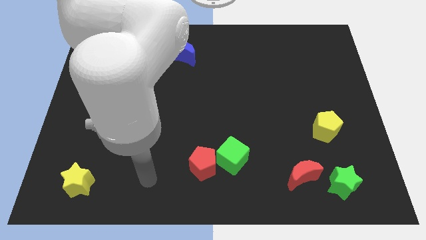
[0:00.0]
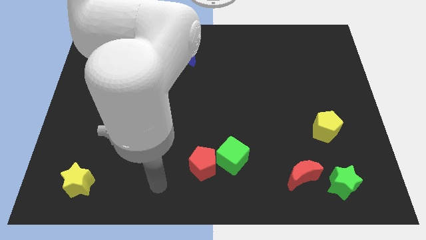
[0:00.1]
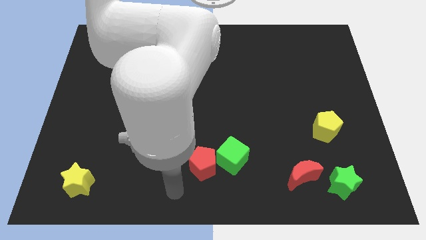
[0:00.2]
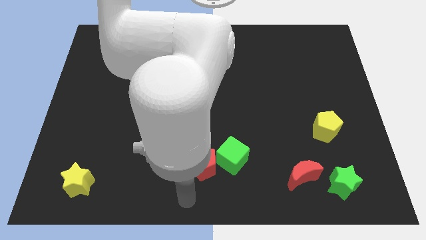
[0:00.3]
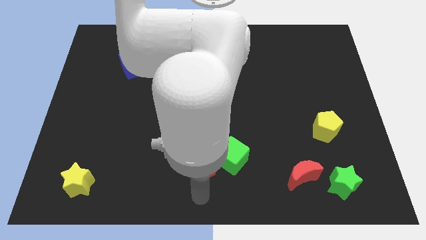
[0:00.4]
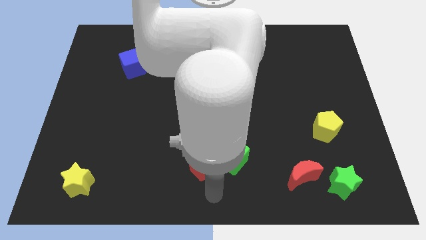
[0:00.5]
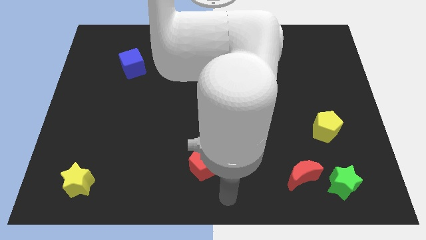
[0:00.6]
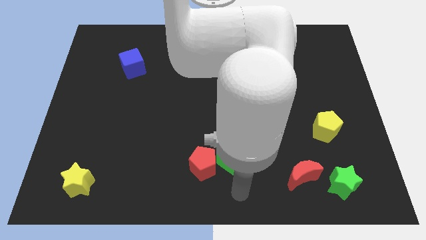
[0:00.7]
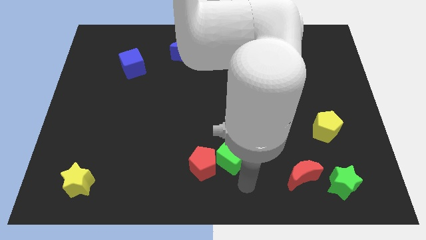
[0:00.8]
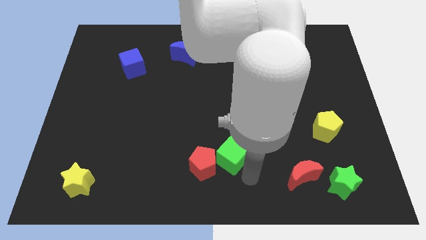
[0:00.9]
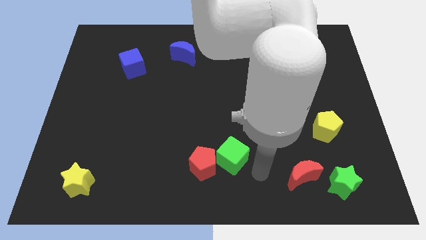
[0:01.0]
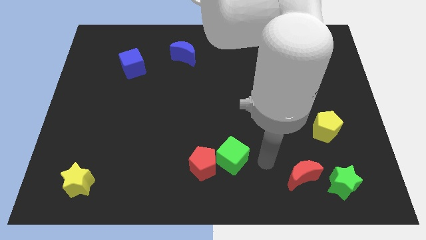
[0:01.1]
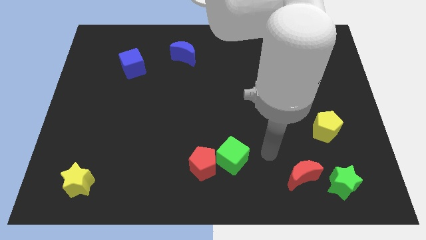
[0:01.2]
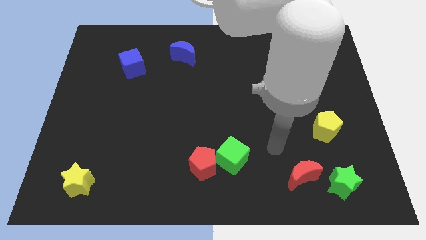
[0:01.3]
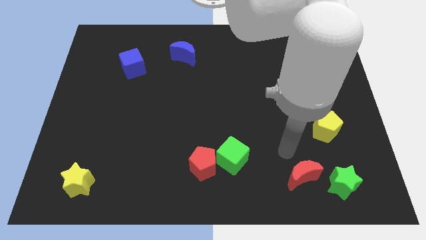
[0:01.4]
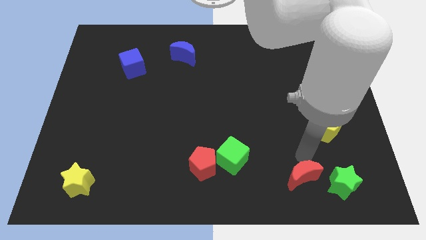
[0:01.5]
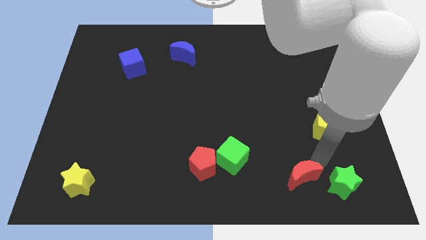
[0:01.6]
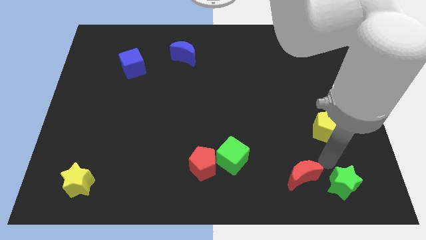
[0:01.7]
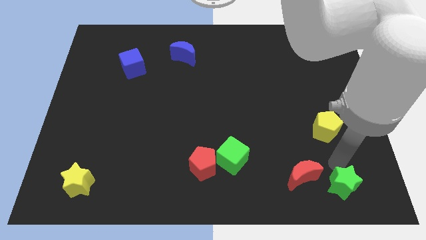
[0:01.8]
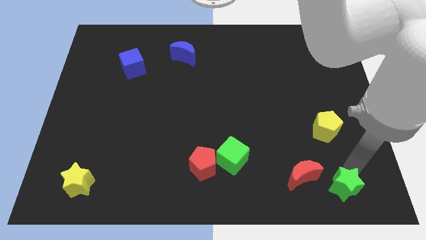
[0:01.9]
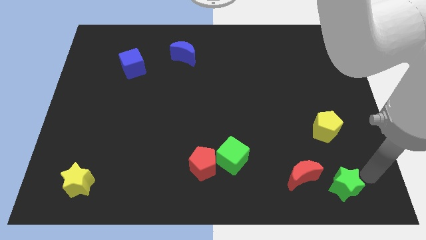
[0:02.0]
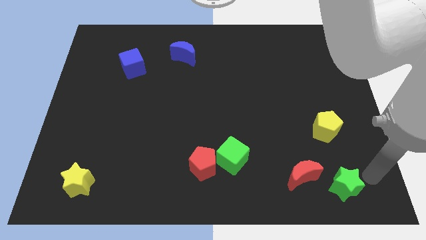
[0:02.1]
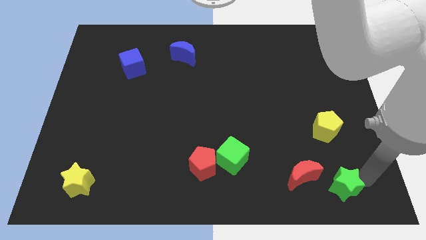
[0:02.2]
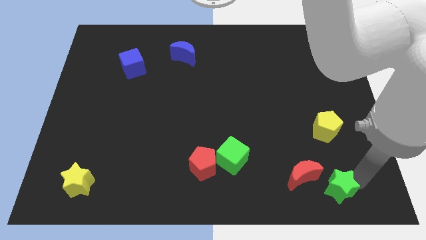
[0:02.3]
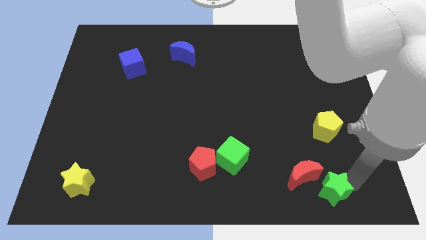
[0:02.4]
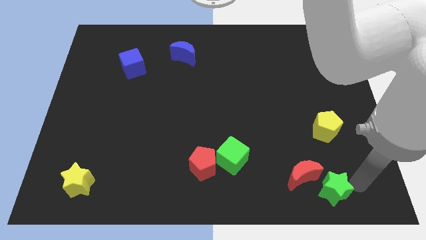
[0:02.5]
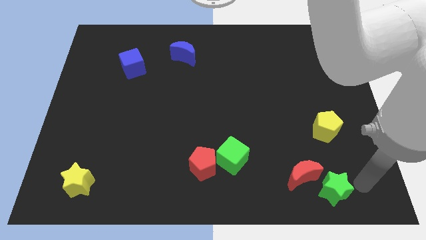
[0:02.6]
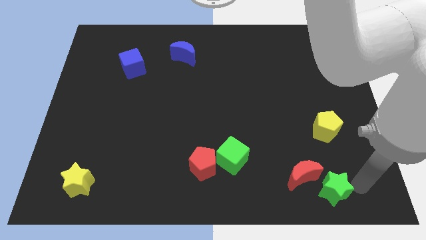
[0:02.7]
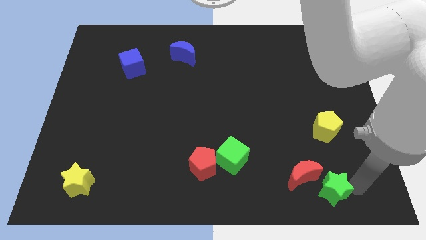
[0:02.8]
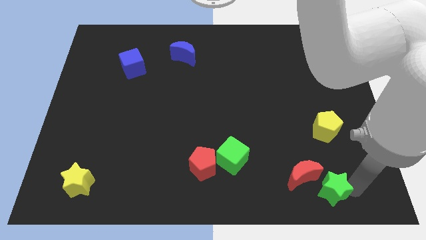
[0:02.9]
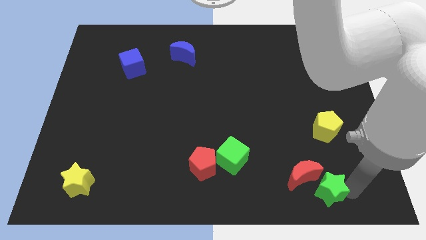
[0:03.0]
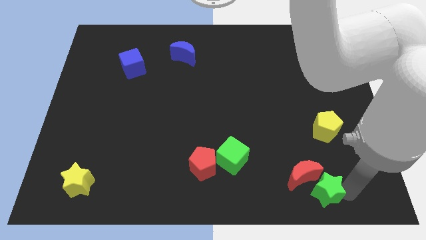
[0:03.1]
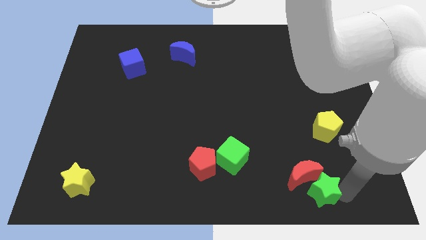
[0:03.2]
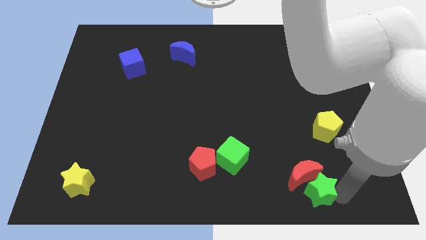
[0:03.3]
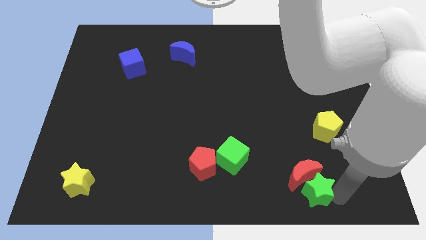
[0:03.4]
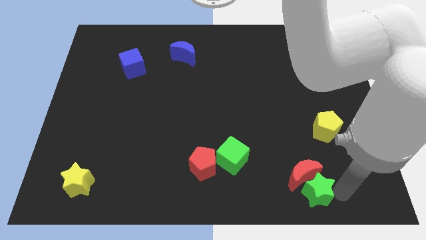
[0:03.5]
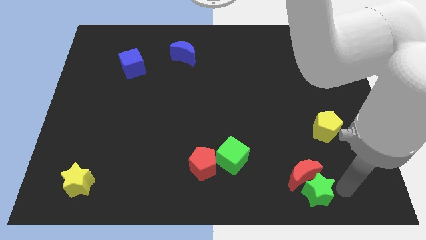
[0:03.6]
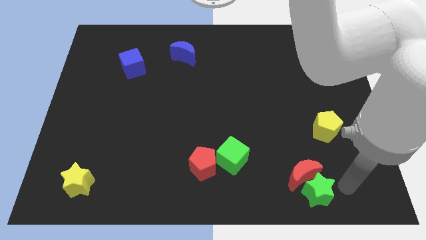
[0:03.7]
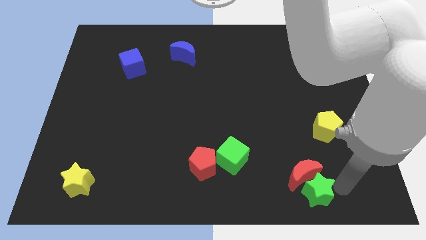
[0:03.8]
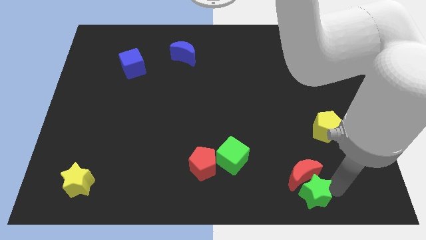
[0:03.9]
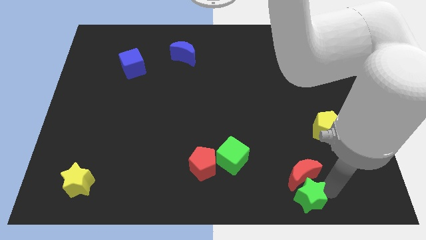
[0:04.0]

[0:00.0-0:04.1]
slightly push the green star left

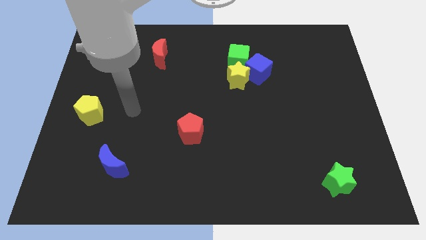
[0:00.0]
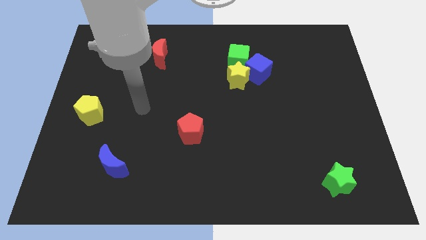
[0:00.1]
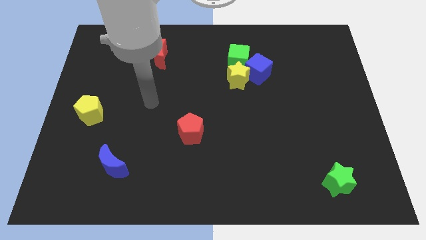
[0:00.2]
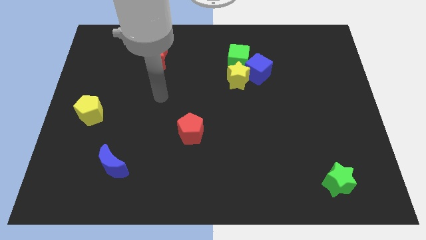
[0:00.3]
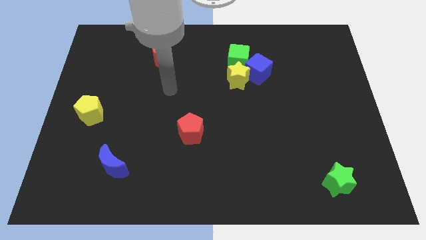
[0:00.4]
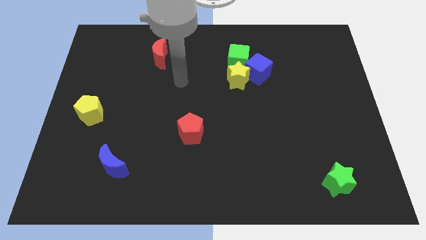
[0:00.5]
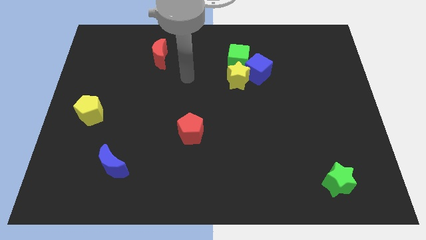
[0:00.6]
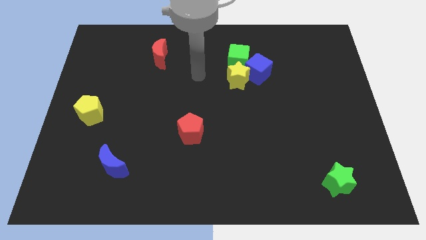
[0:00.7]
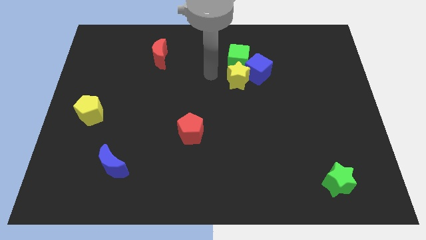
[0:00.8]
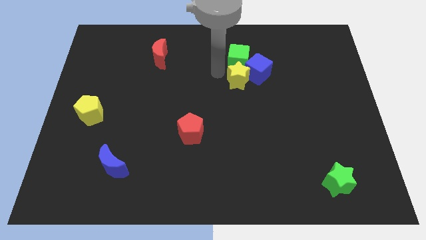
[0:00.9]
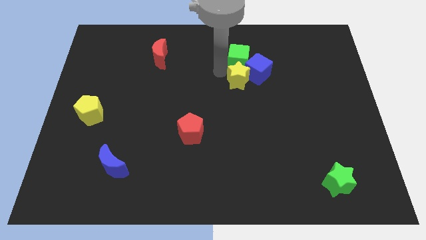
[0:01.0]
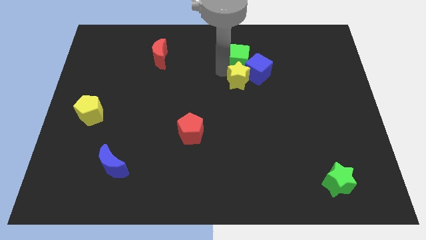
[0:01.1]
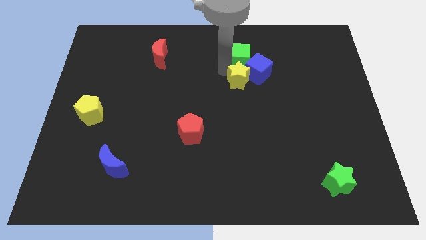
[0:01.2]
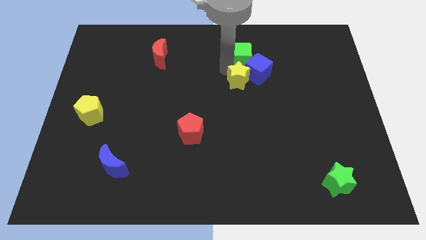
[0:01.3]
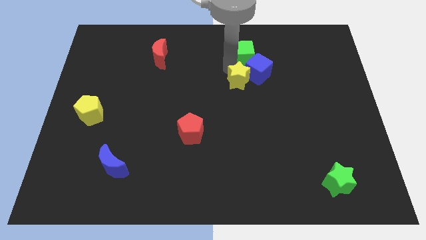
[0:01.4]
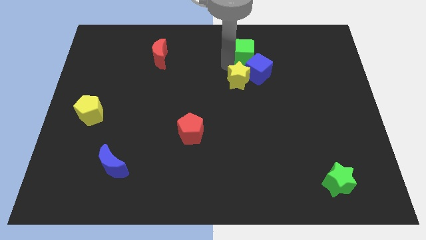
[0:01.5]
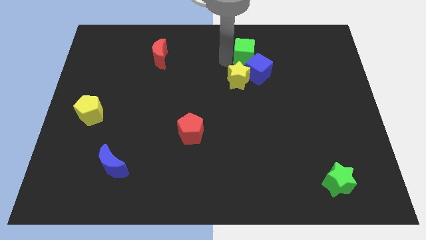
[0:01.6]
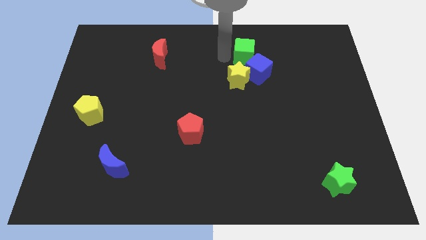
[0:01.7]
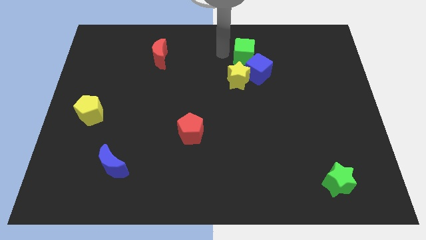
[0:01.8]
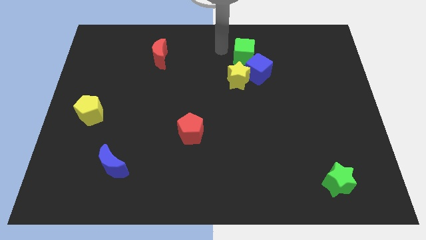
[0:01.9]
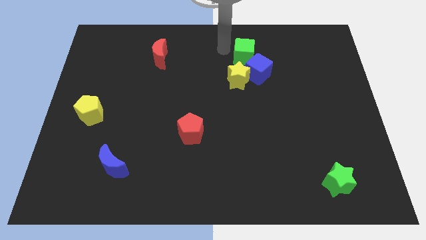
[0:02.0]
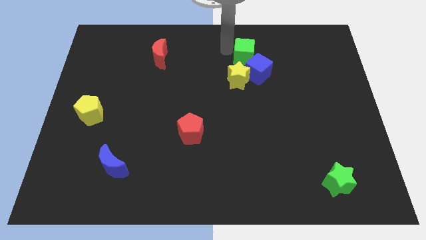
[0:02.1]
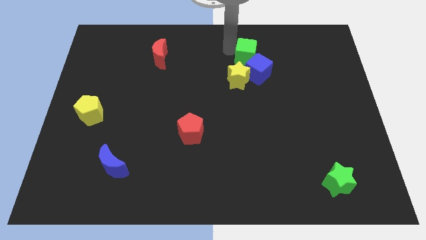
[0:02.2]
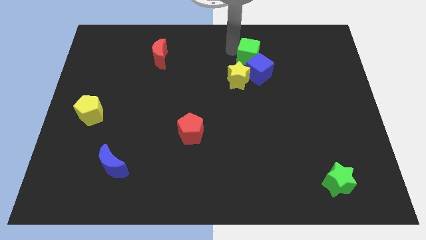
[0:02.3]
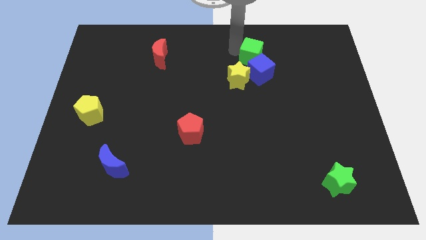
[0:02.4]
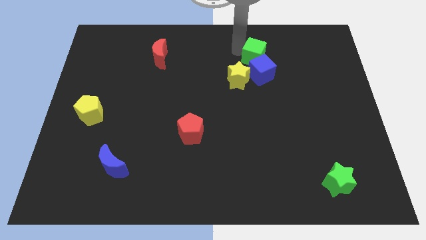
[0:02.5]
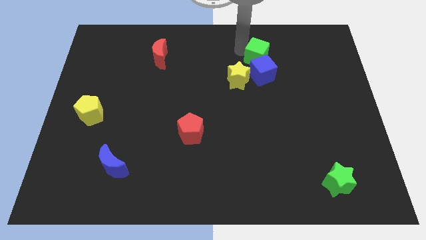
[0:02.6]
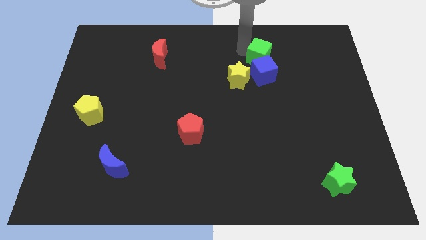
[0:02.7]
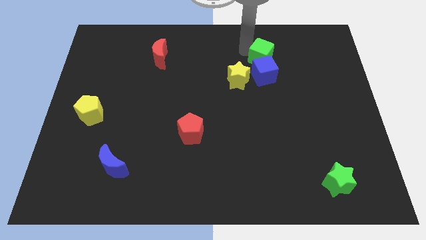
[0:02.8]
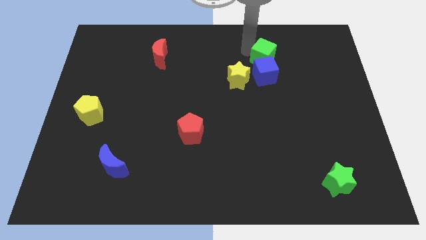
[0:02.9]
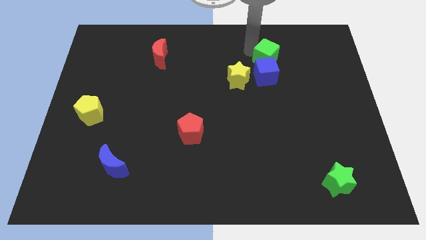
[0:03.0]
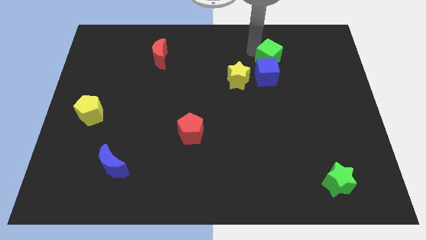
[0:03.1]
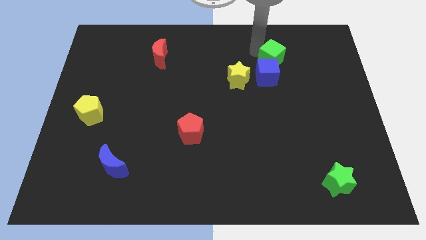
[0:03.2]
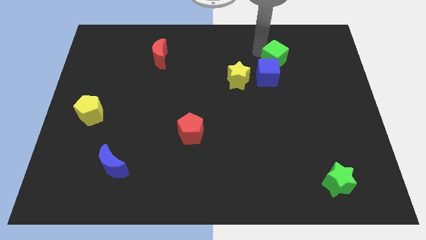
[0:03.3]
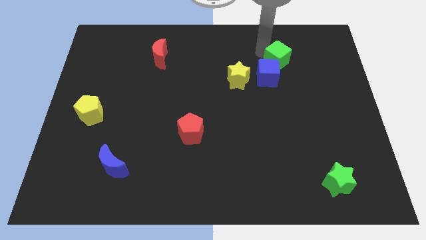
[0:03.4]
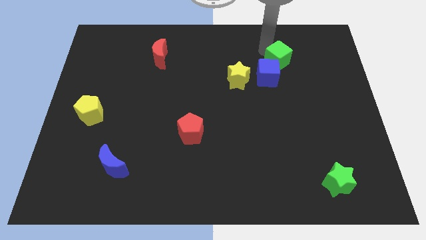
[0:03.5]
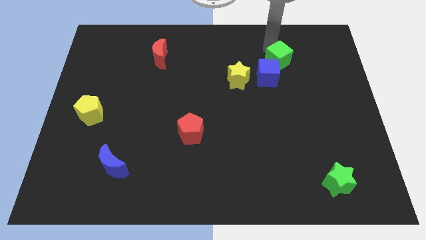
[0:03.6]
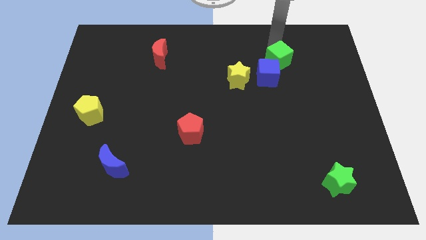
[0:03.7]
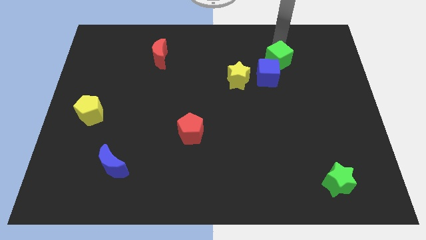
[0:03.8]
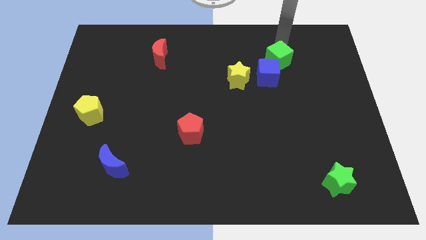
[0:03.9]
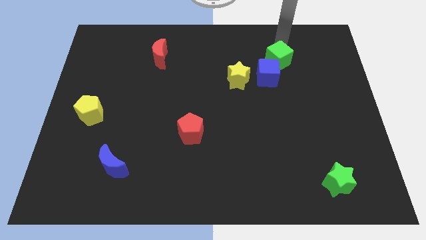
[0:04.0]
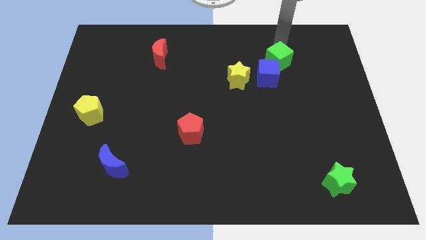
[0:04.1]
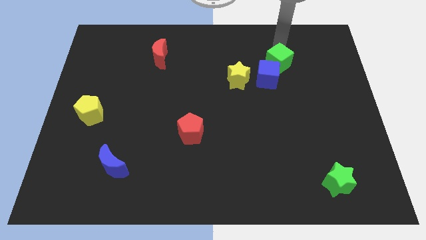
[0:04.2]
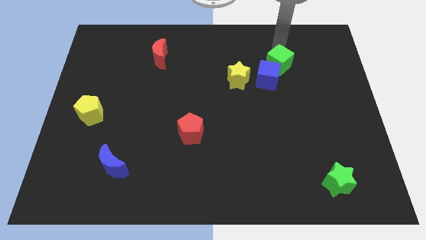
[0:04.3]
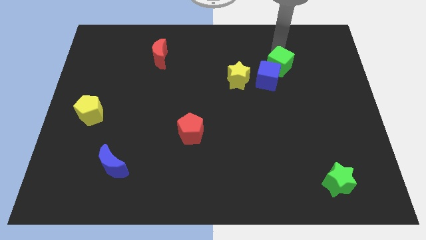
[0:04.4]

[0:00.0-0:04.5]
slide the green cube downwards and then to the right a bit
